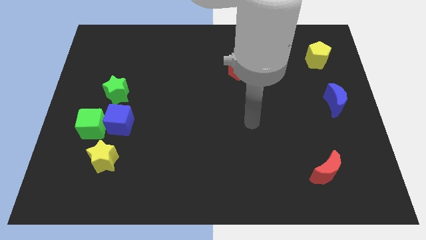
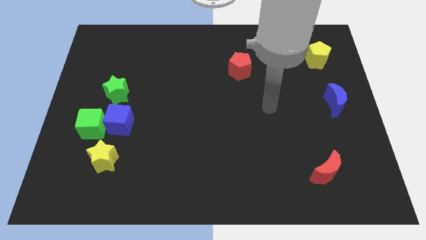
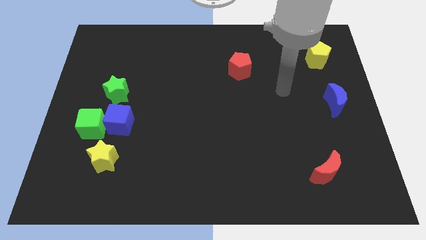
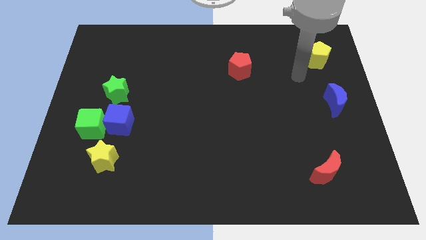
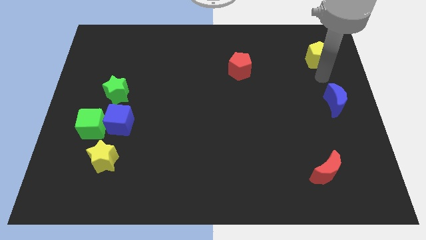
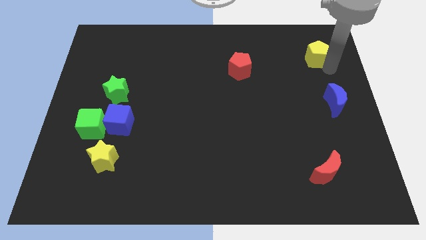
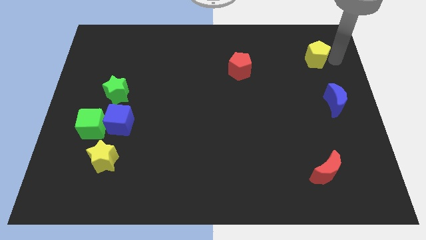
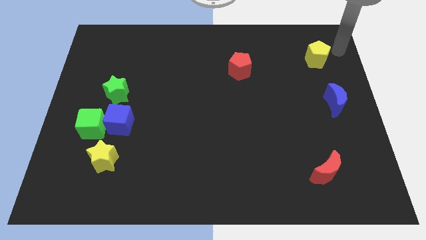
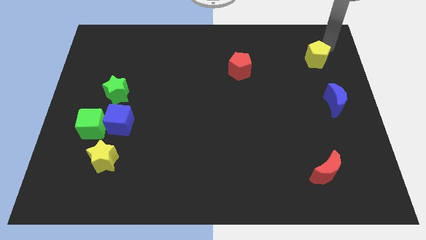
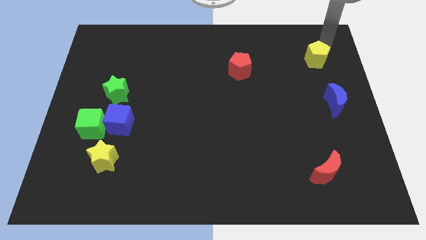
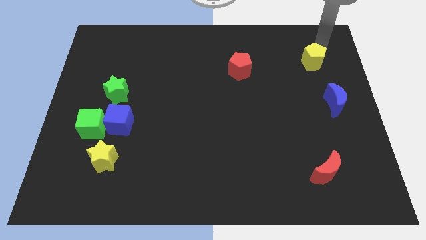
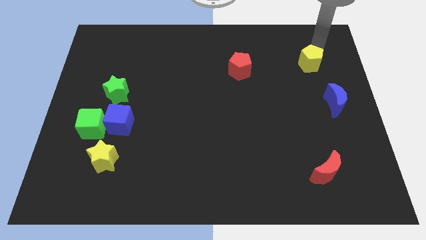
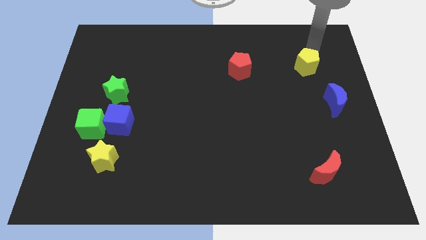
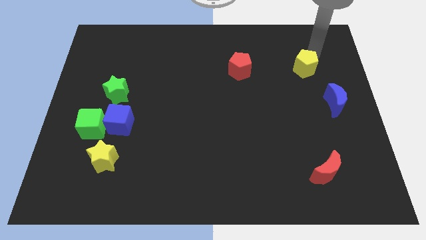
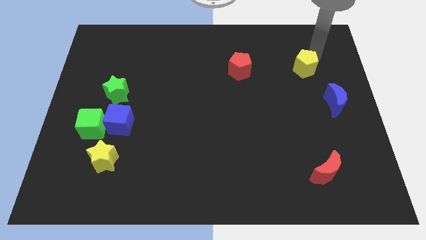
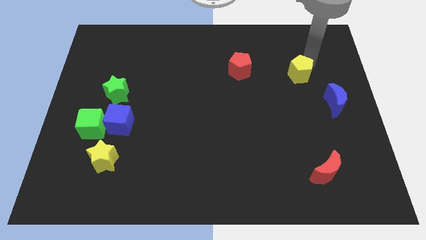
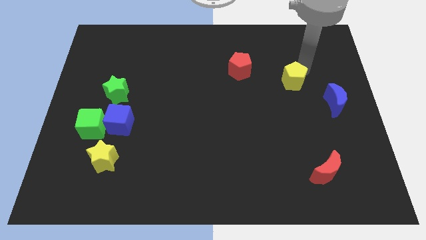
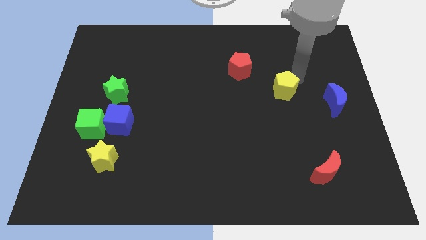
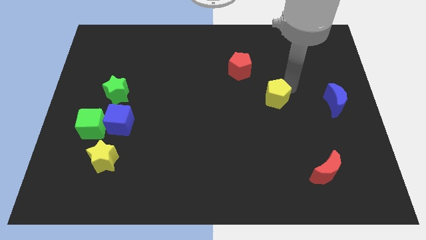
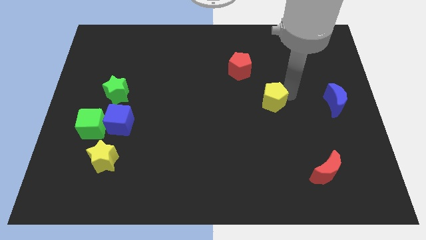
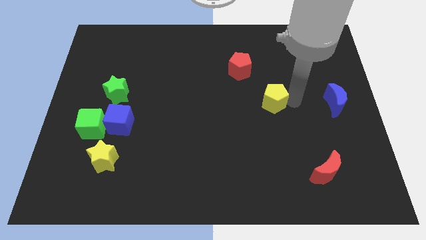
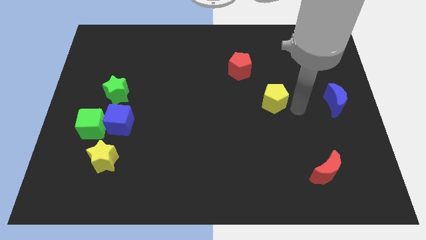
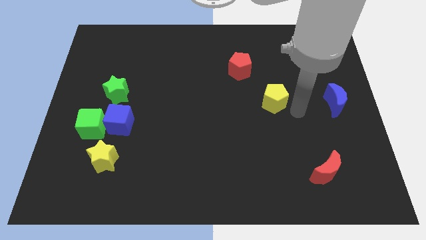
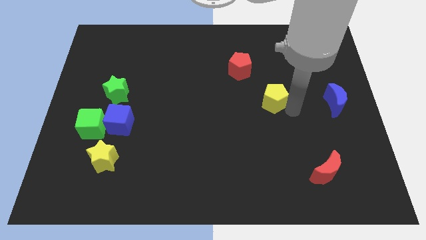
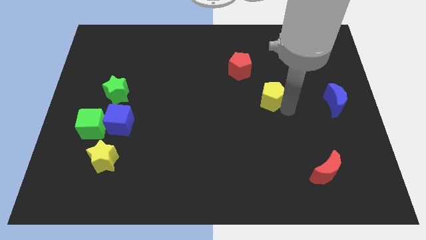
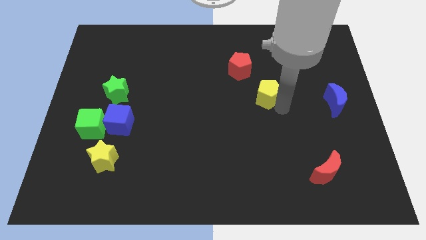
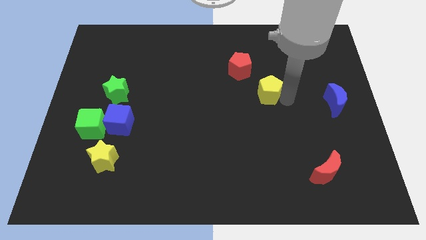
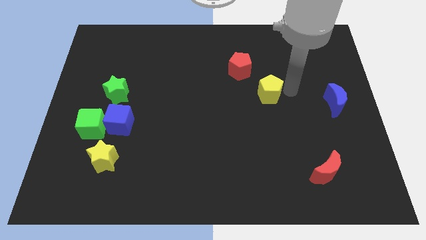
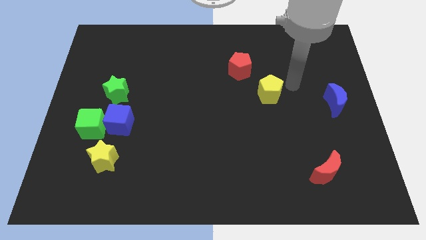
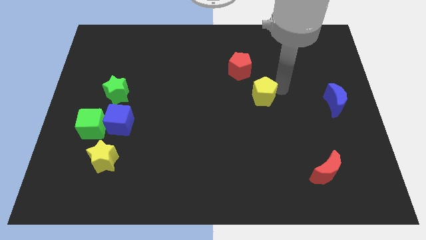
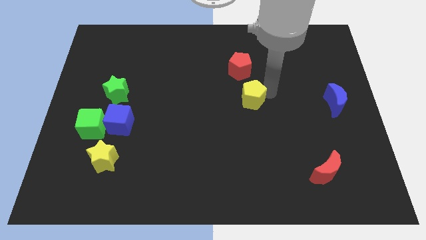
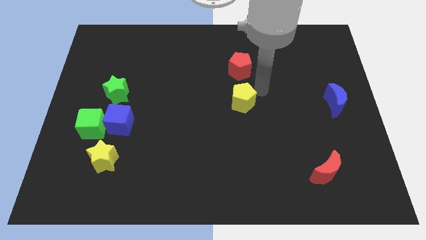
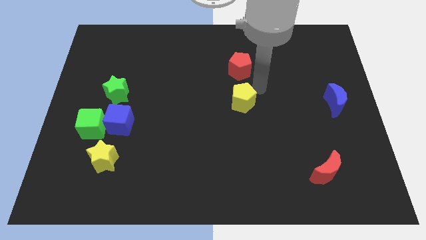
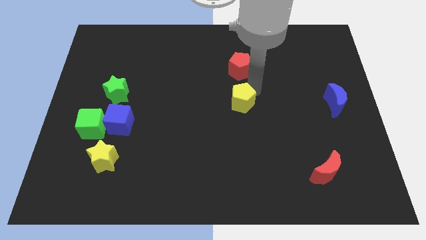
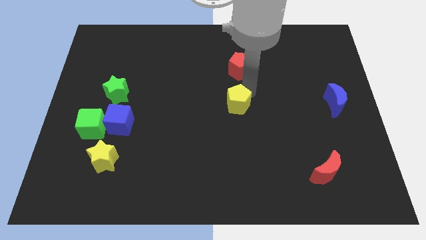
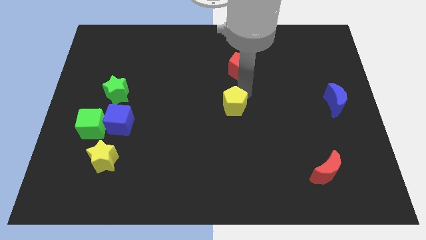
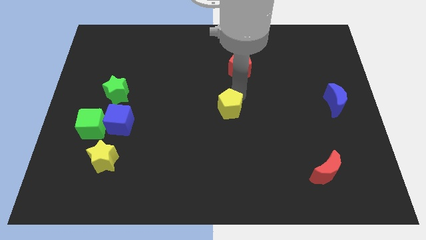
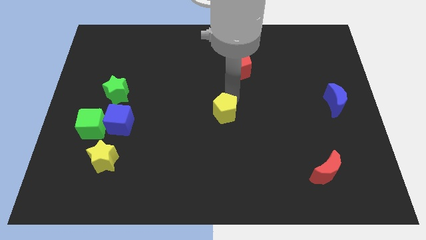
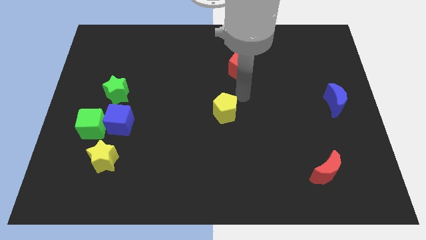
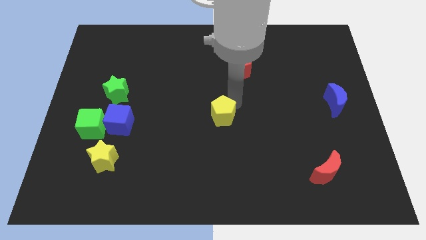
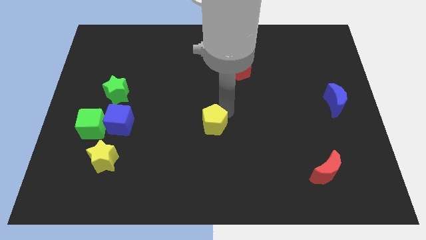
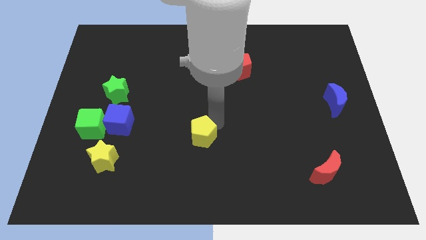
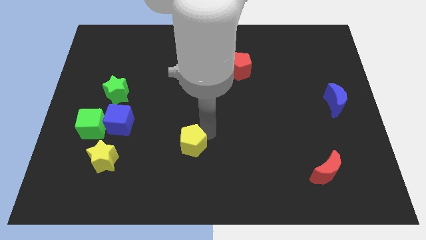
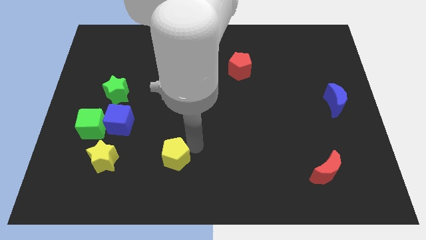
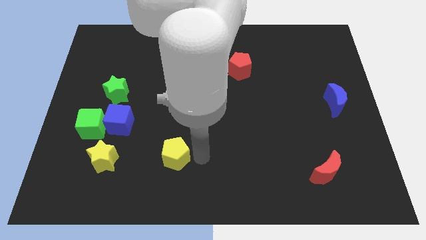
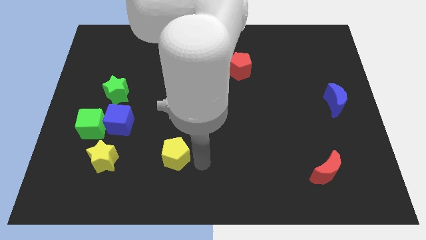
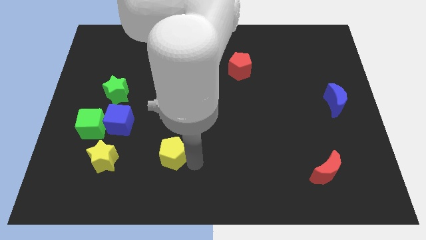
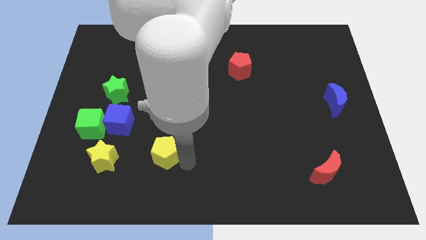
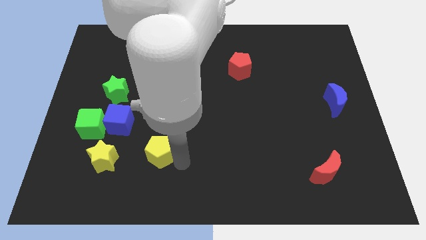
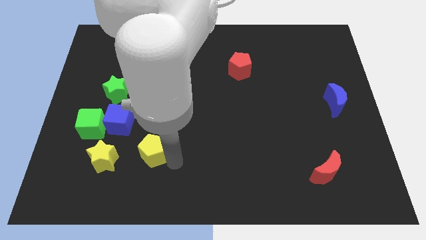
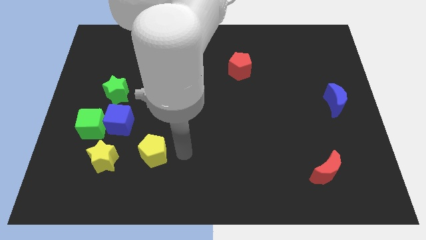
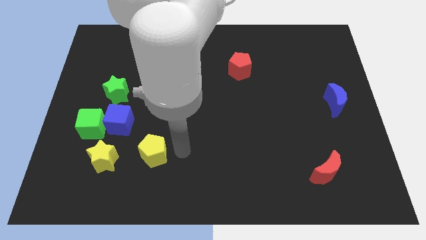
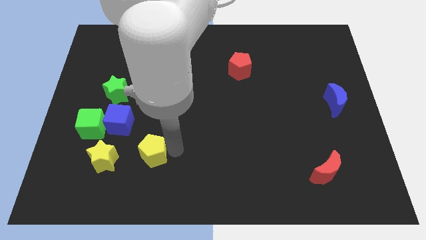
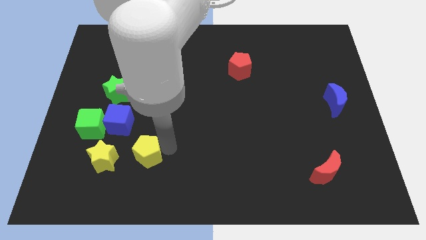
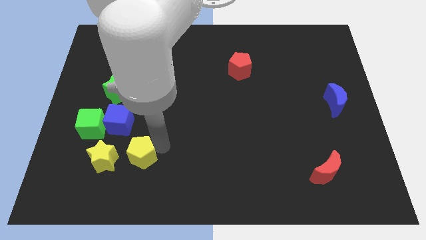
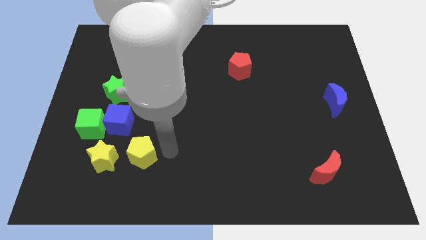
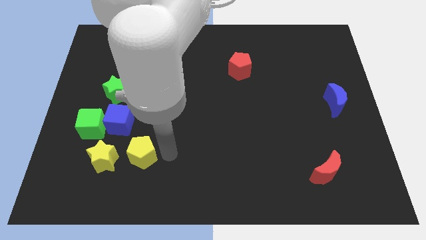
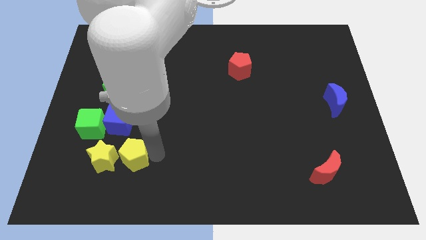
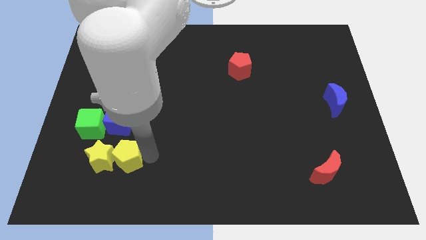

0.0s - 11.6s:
put the yellow pentagon to the yellow star

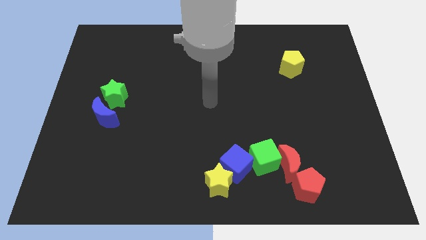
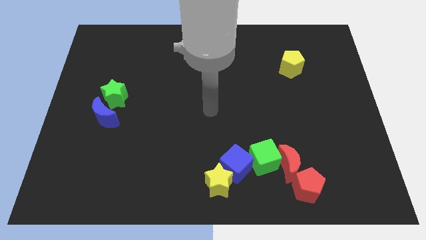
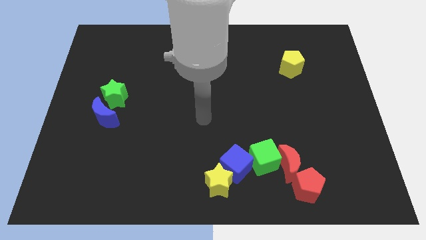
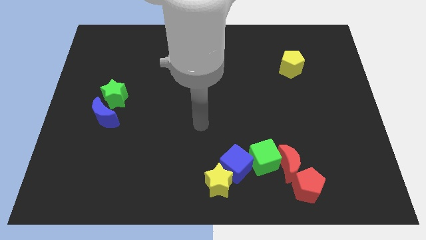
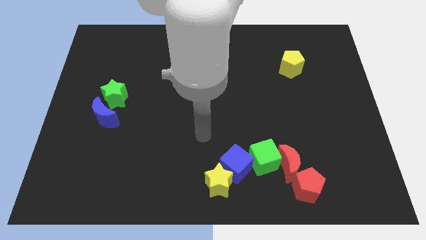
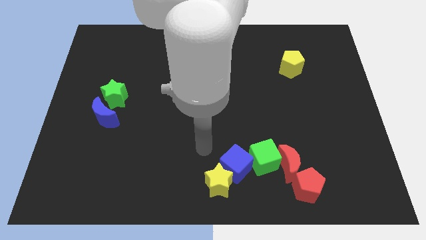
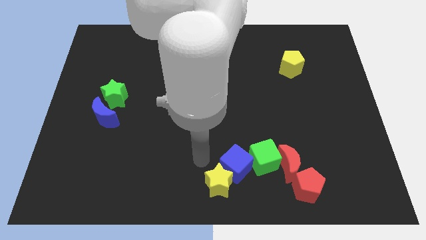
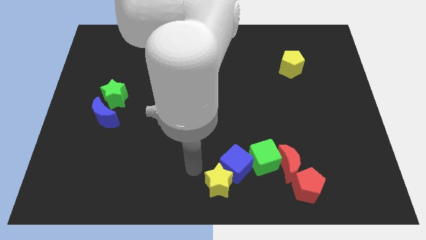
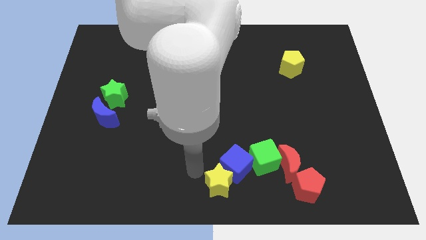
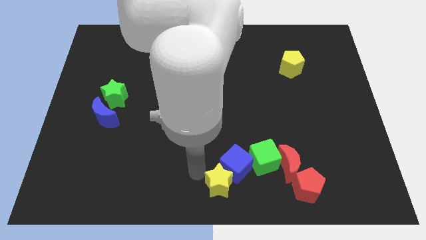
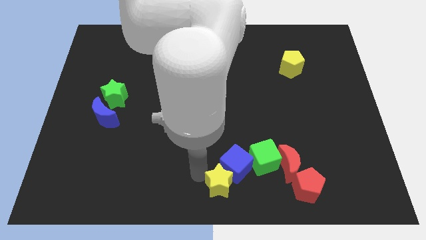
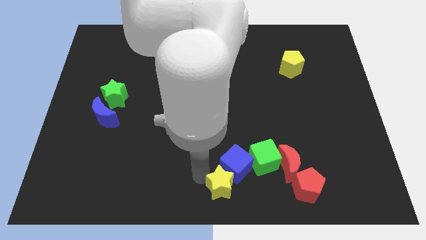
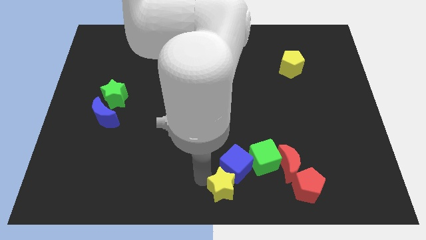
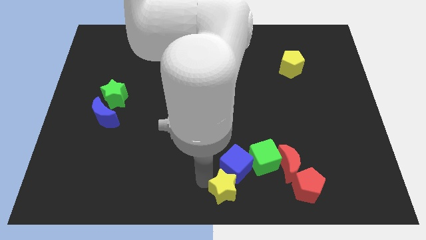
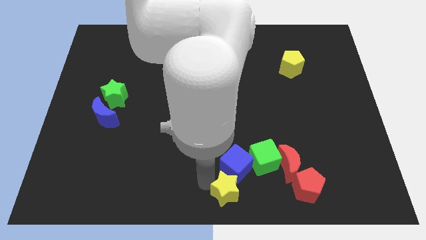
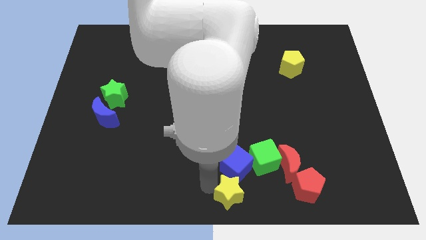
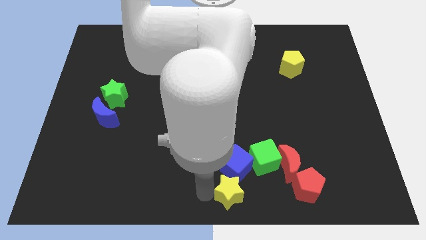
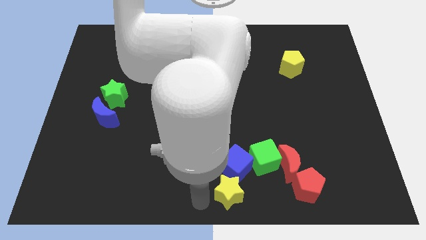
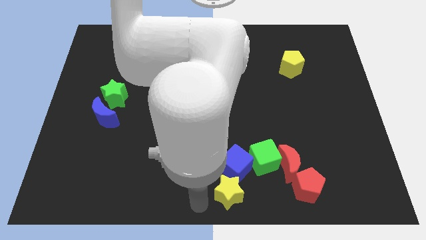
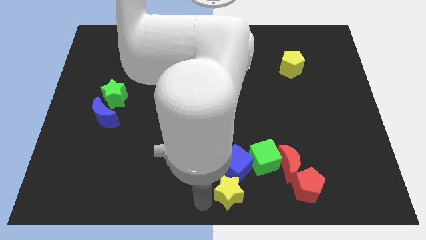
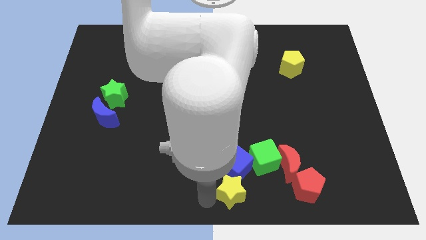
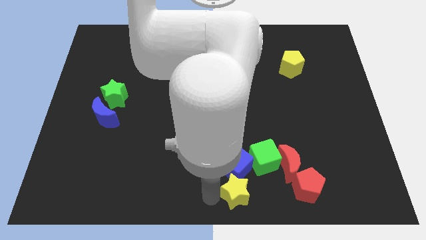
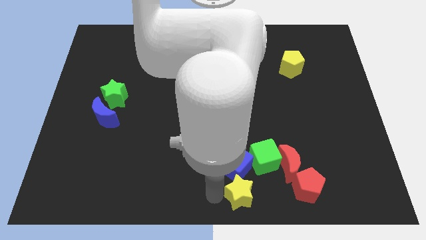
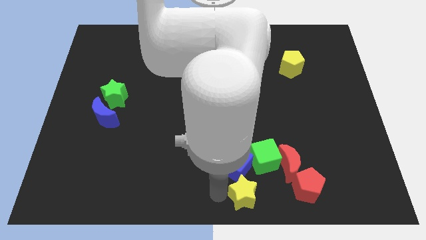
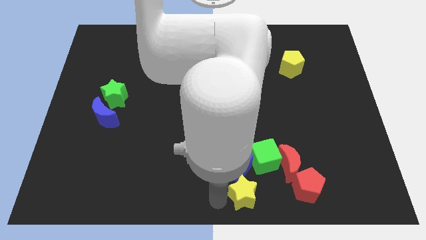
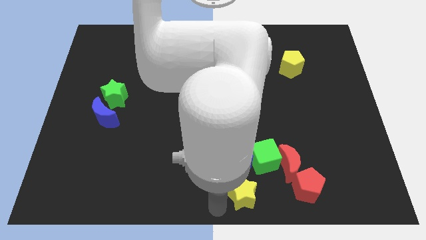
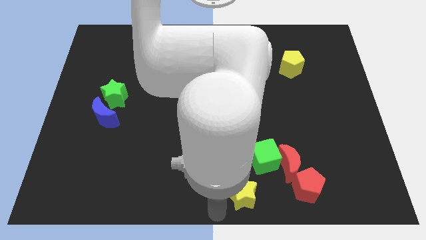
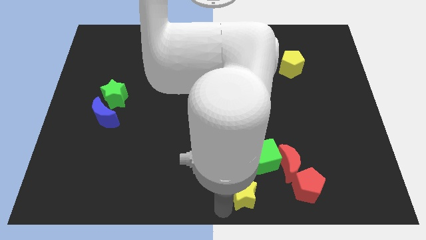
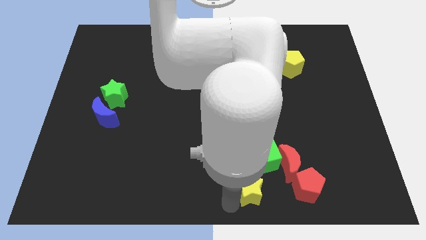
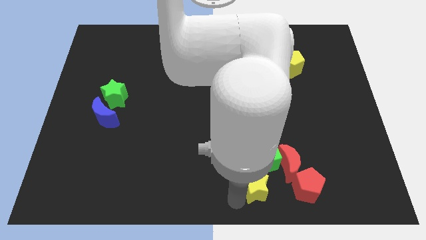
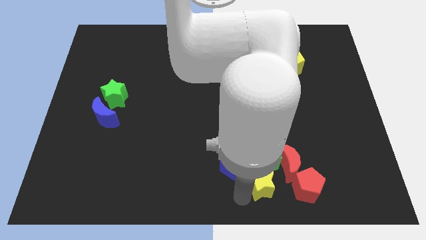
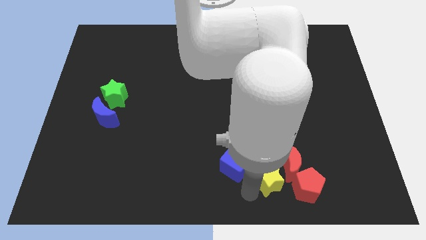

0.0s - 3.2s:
push the yellow star towards the red moon
